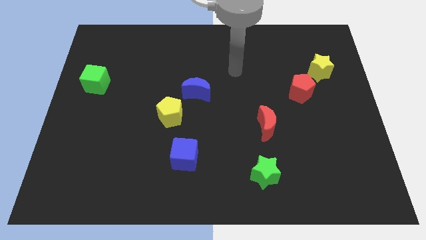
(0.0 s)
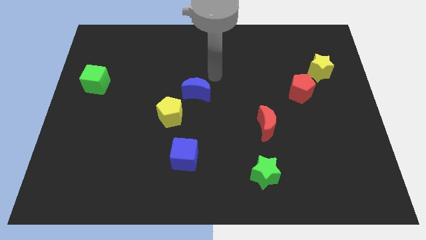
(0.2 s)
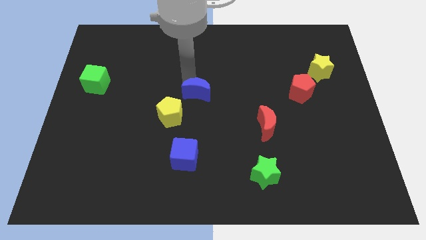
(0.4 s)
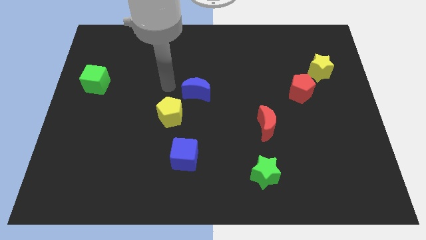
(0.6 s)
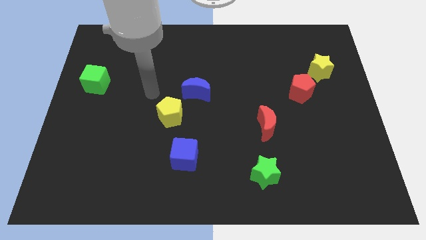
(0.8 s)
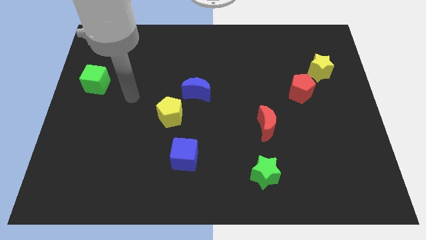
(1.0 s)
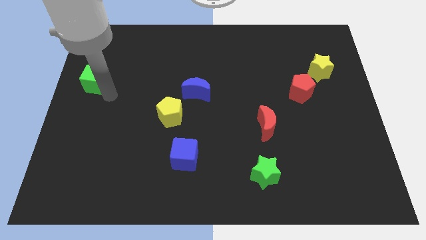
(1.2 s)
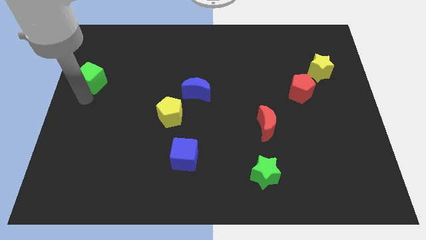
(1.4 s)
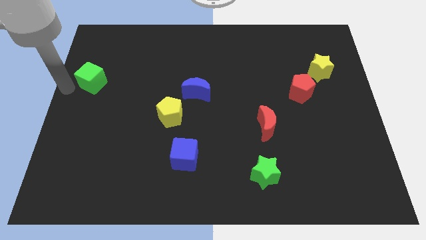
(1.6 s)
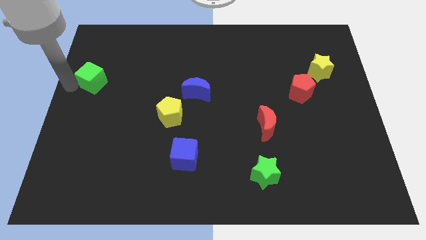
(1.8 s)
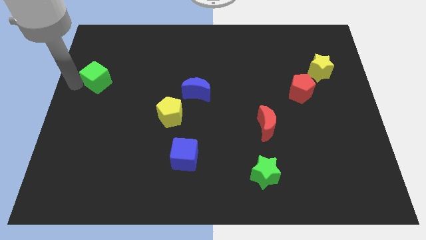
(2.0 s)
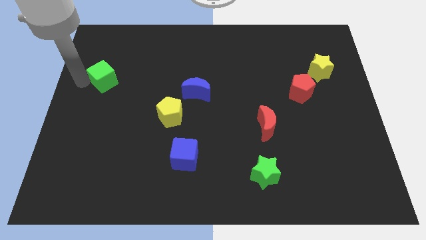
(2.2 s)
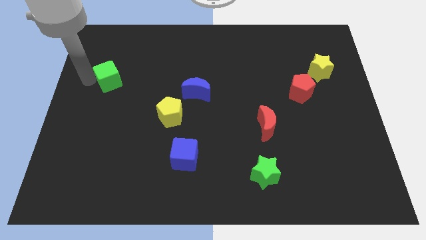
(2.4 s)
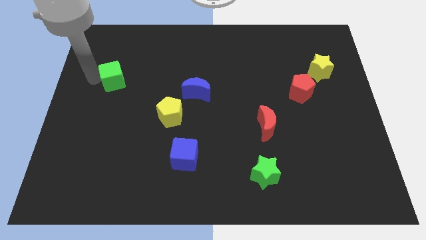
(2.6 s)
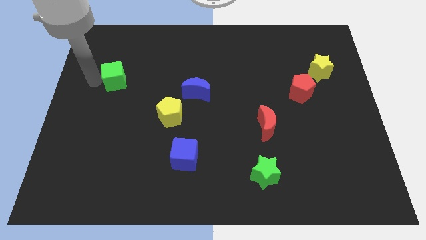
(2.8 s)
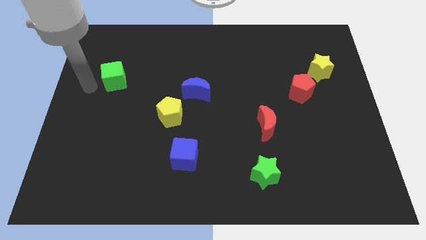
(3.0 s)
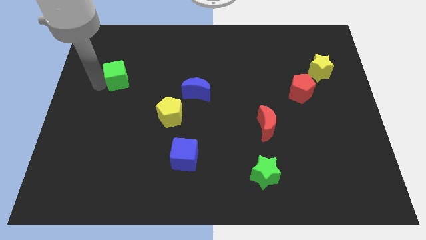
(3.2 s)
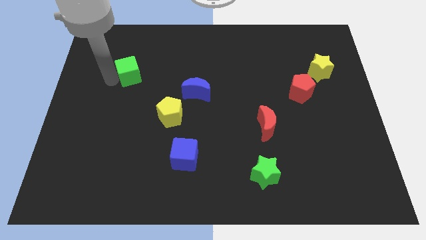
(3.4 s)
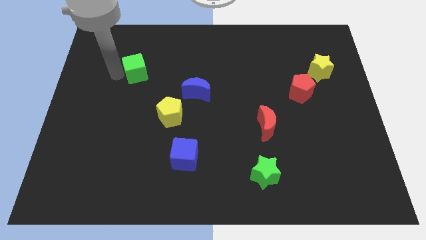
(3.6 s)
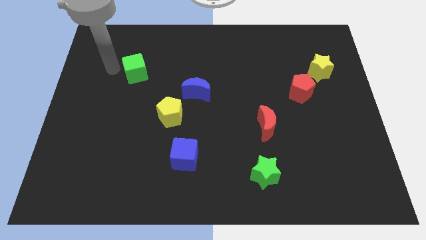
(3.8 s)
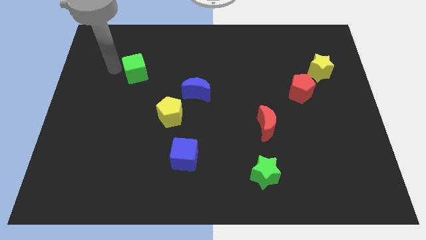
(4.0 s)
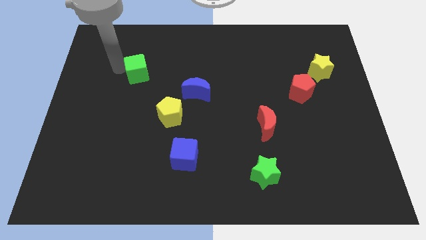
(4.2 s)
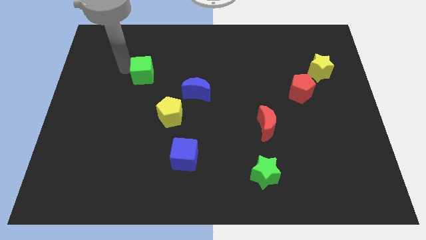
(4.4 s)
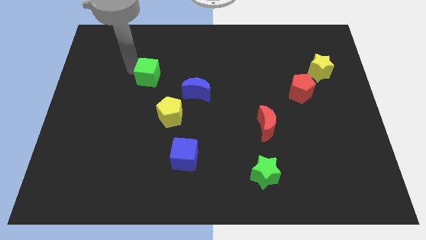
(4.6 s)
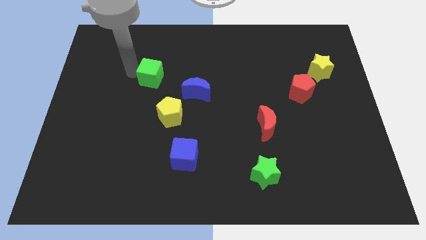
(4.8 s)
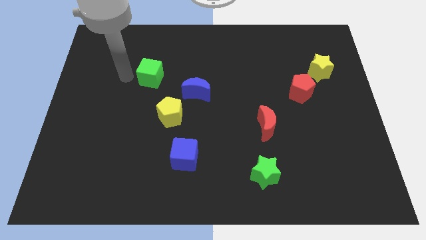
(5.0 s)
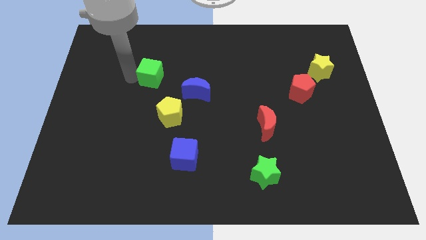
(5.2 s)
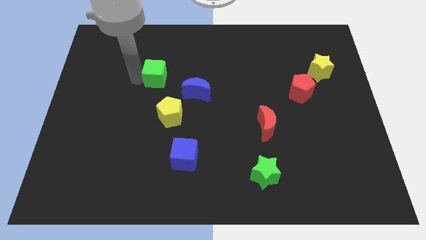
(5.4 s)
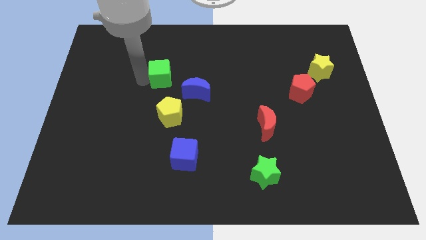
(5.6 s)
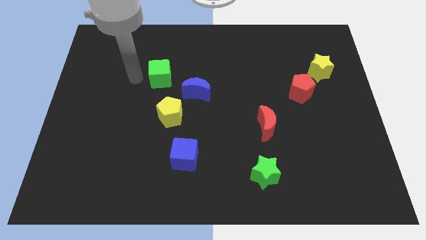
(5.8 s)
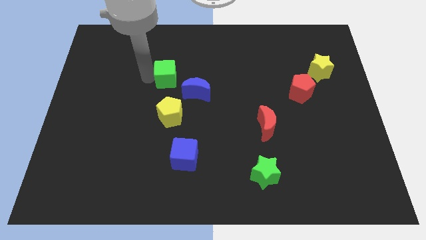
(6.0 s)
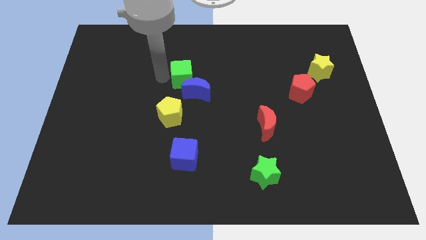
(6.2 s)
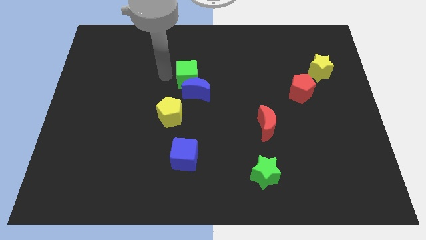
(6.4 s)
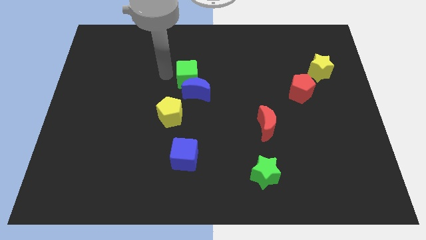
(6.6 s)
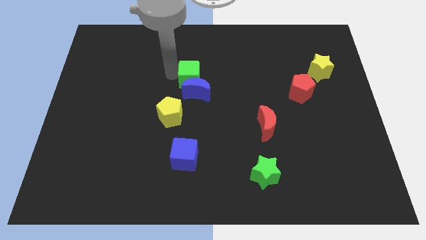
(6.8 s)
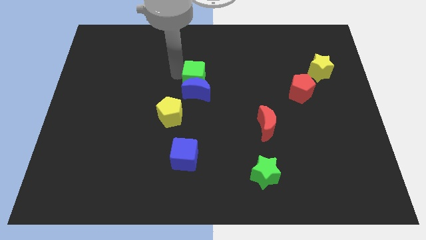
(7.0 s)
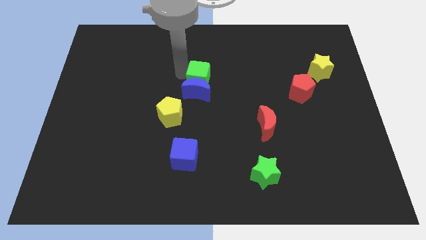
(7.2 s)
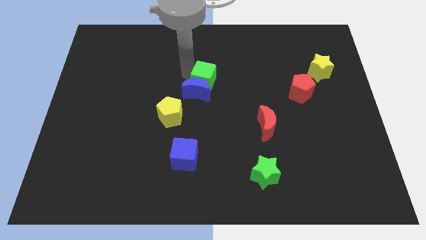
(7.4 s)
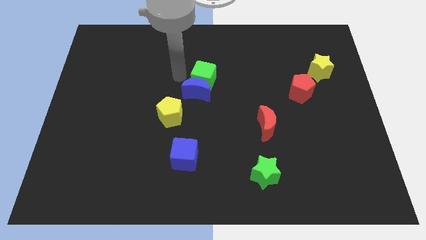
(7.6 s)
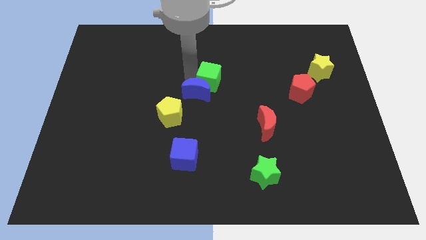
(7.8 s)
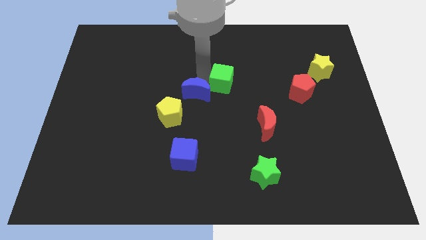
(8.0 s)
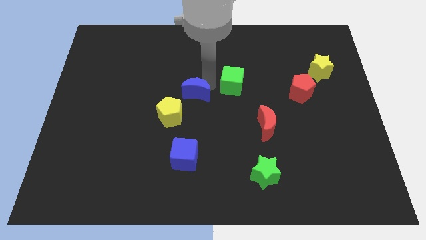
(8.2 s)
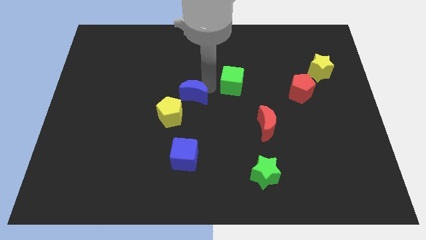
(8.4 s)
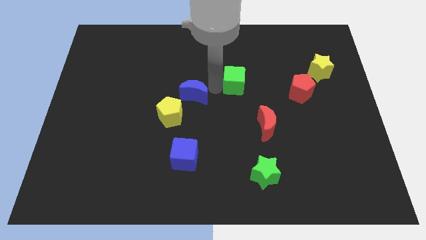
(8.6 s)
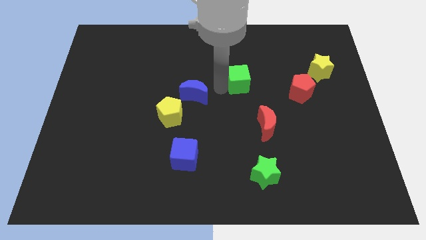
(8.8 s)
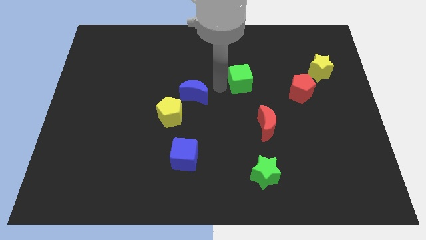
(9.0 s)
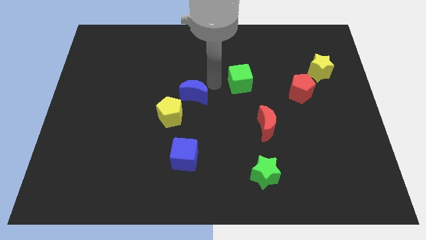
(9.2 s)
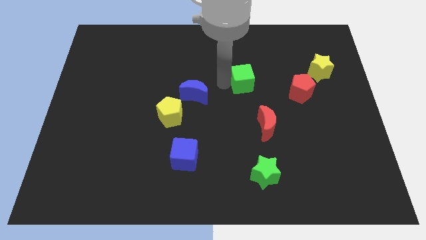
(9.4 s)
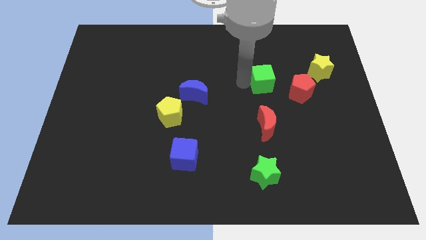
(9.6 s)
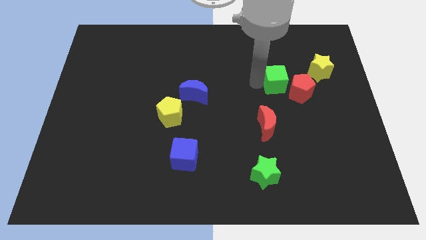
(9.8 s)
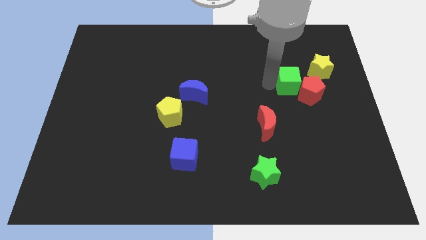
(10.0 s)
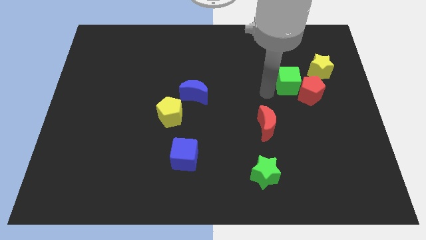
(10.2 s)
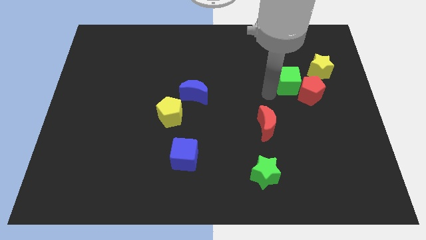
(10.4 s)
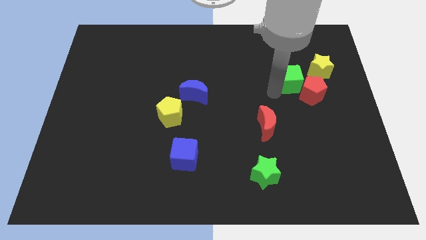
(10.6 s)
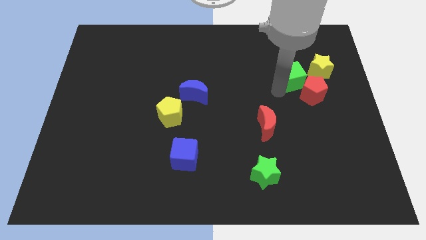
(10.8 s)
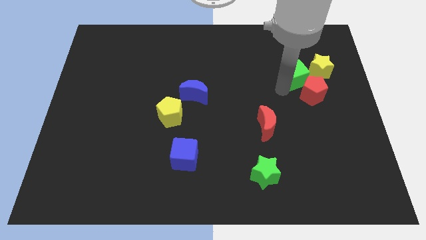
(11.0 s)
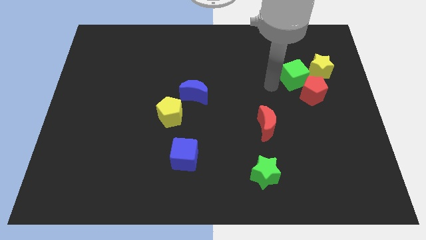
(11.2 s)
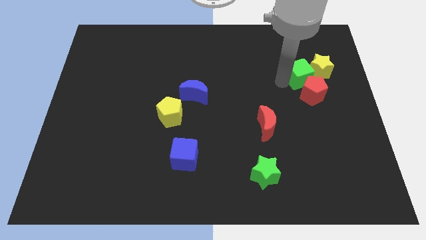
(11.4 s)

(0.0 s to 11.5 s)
slide the green cube towards the yellow star
